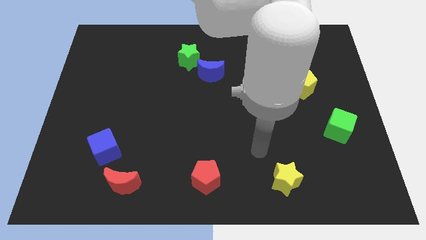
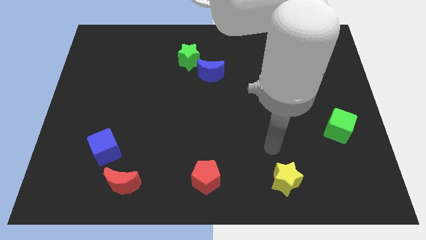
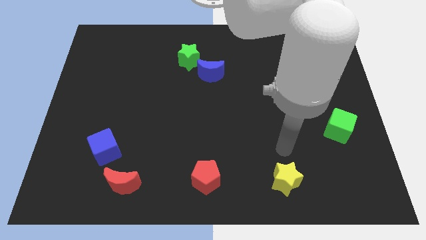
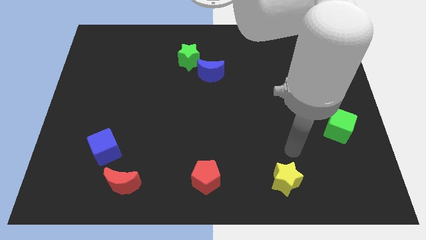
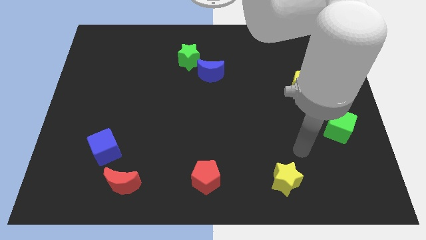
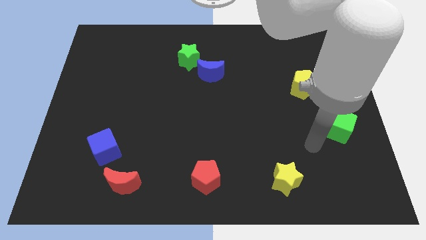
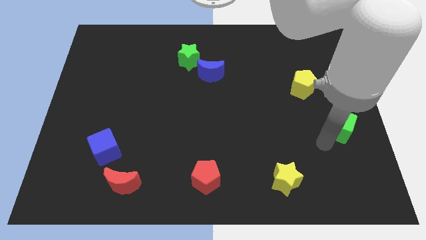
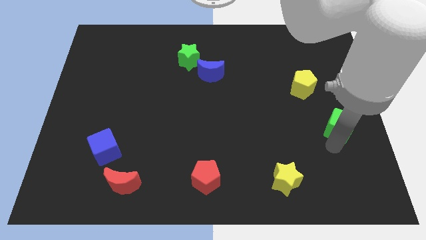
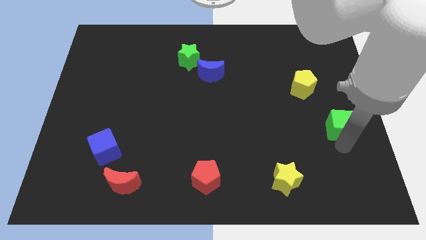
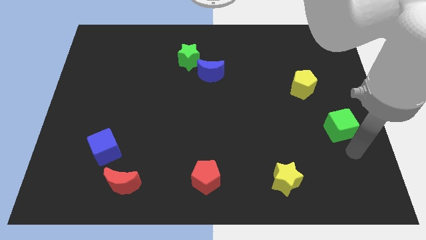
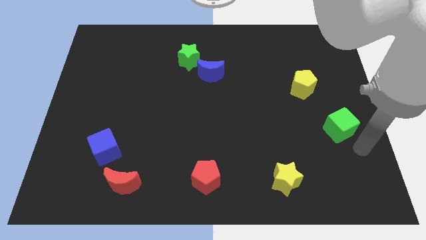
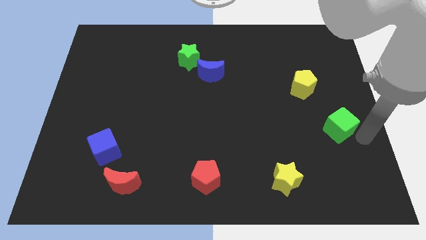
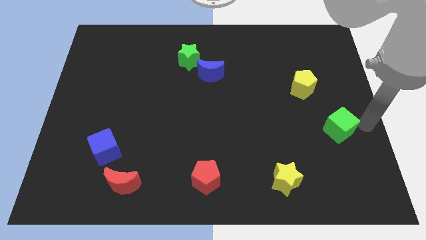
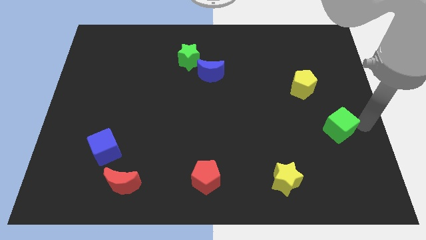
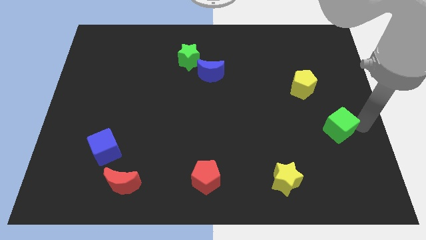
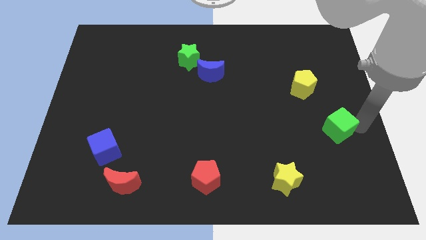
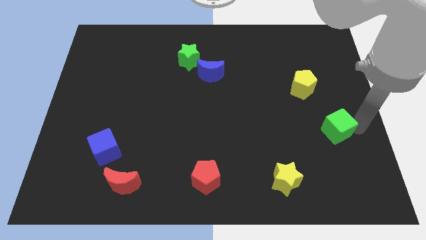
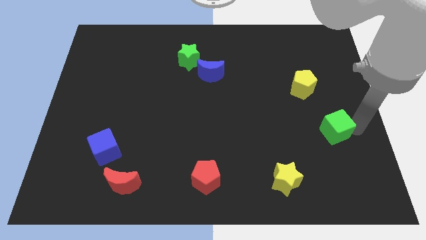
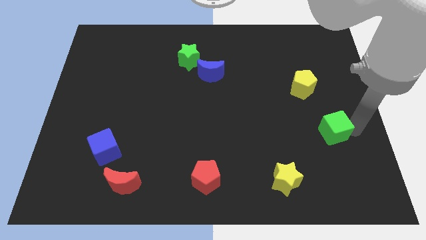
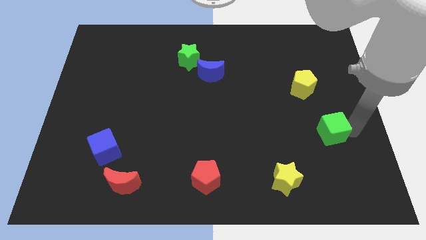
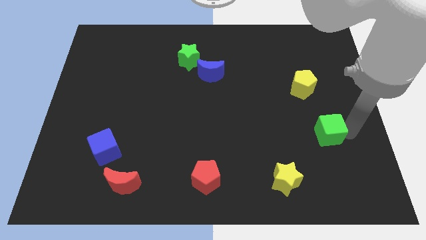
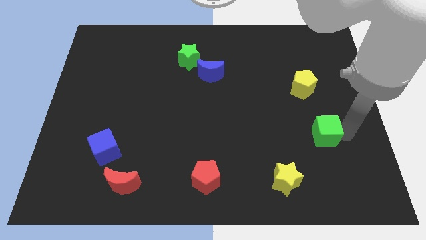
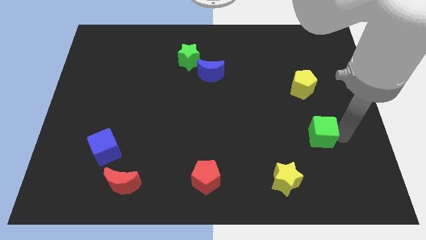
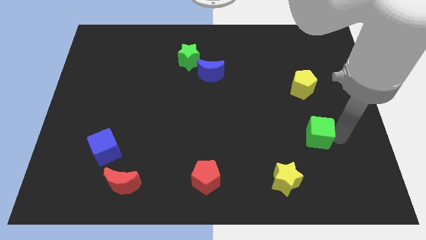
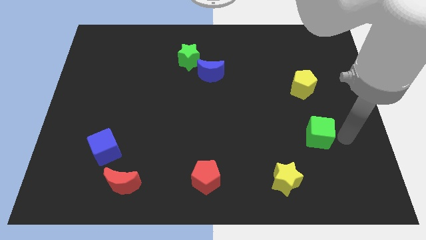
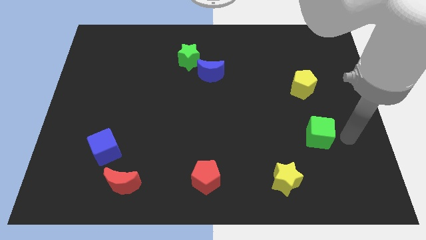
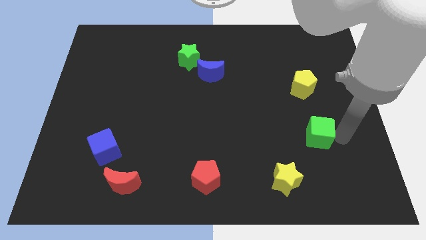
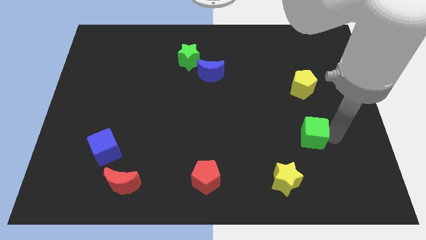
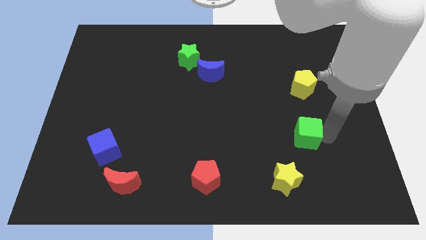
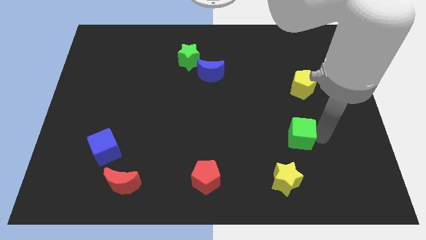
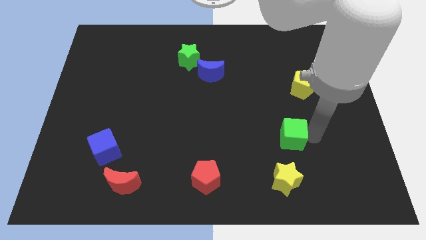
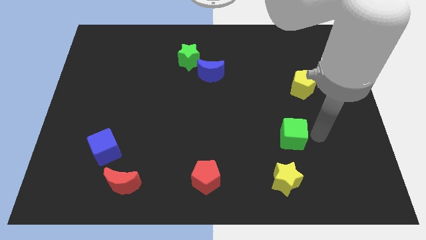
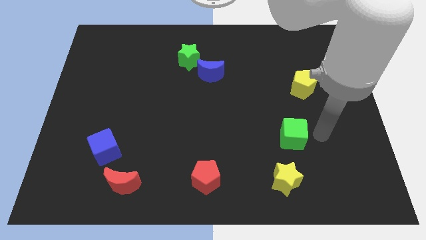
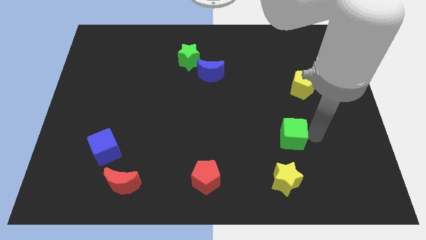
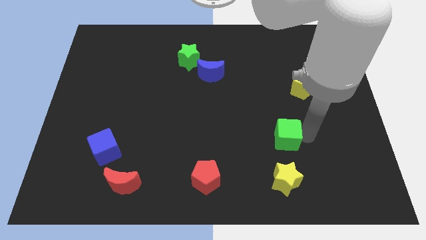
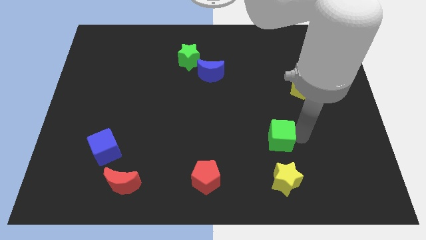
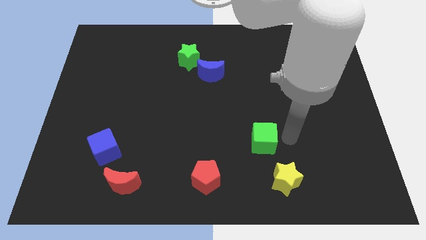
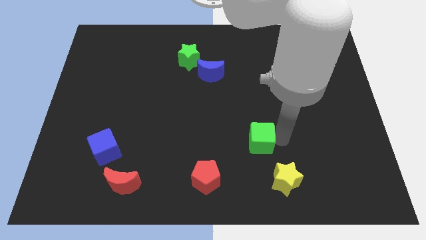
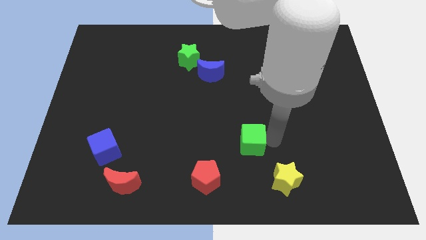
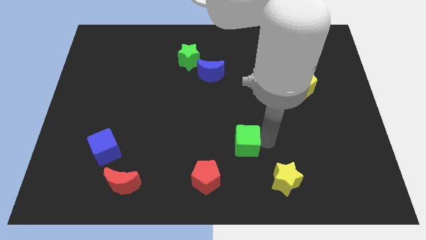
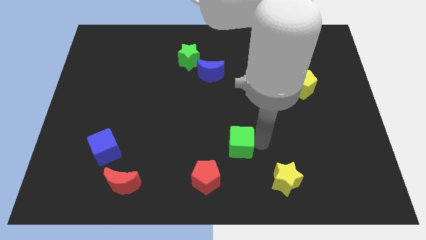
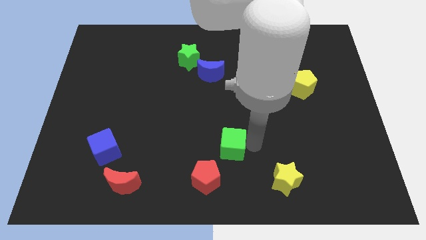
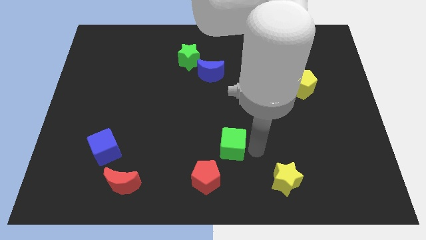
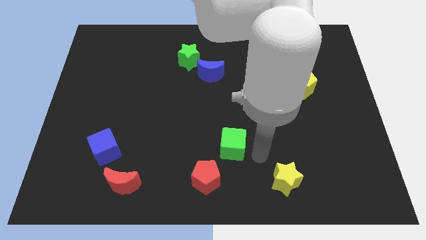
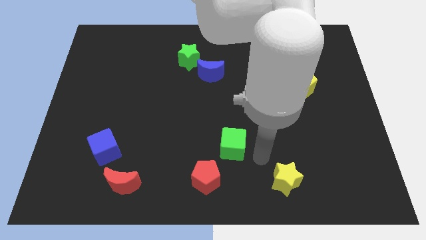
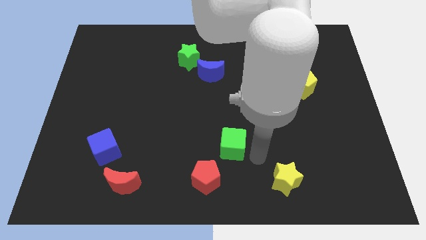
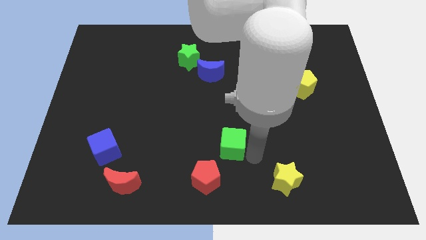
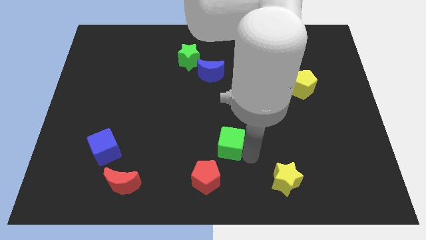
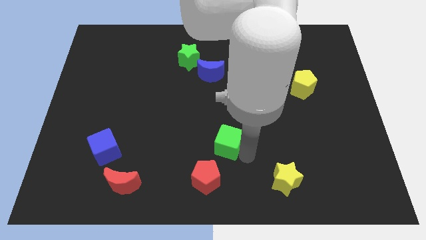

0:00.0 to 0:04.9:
put the green cube to the top side of the red pentagon

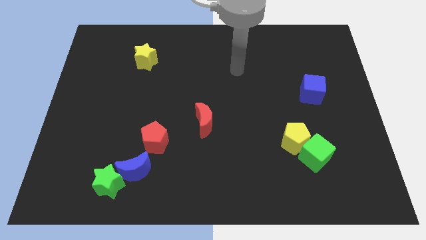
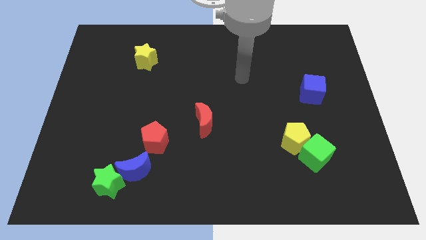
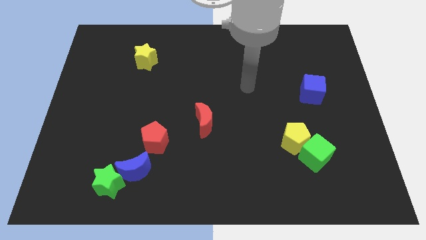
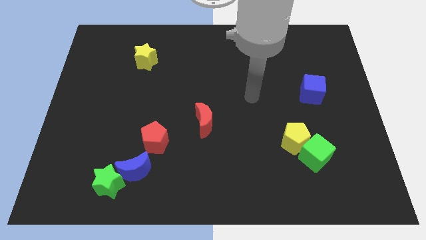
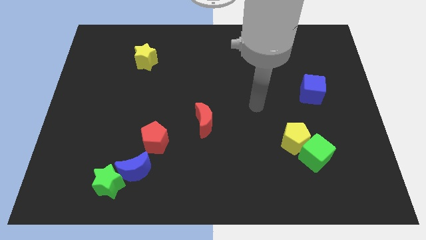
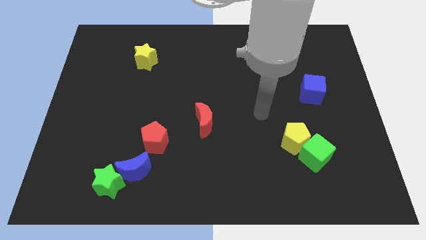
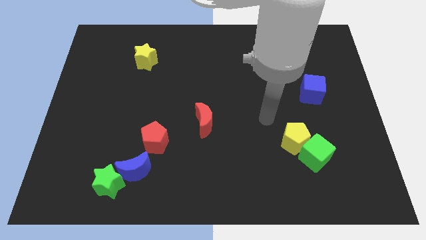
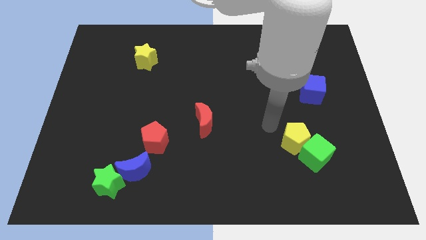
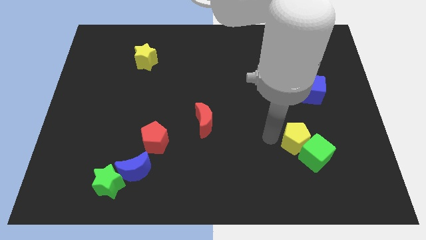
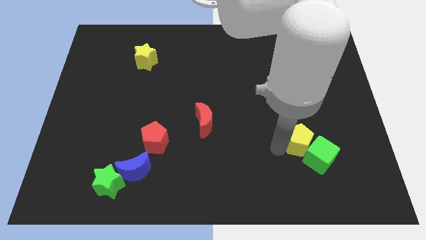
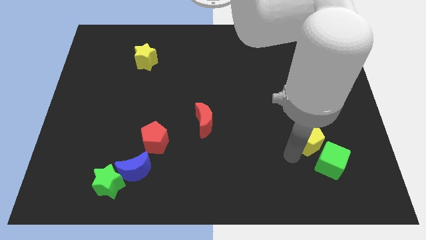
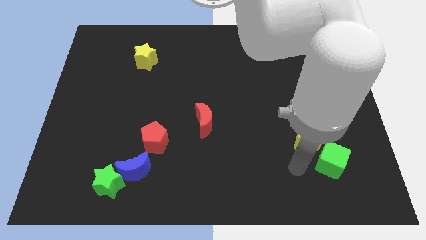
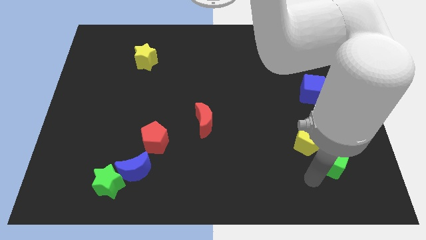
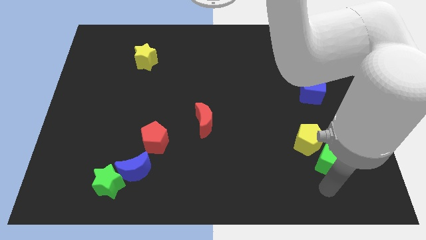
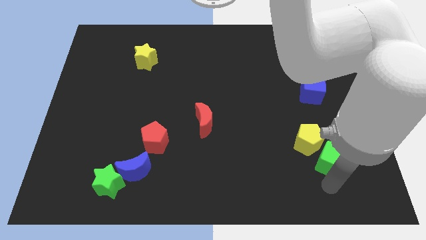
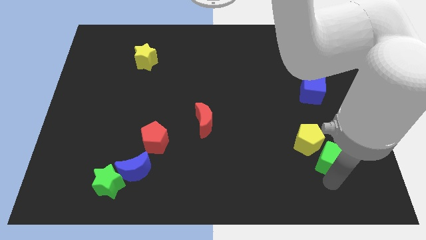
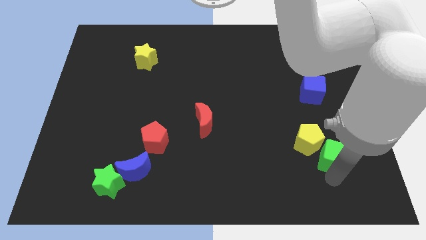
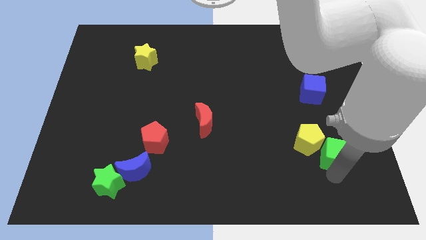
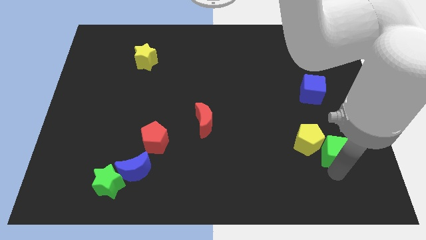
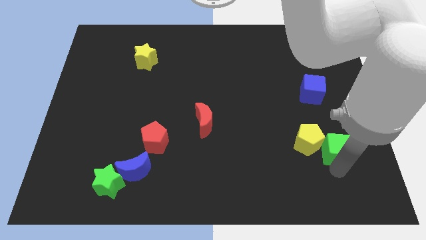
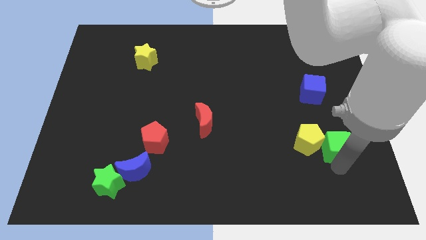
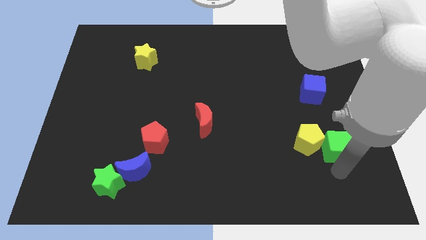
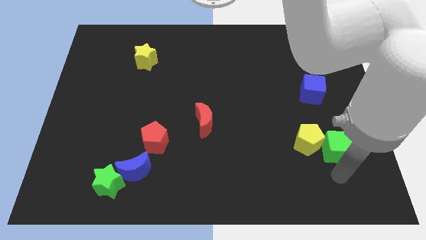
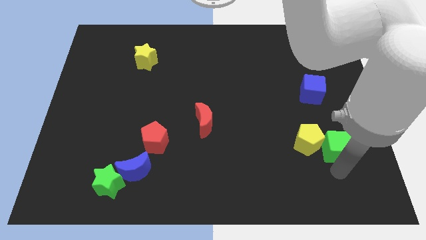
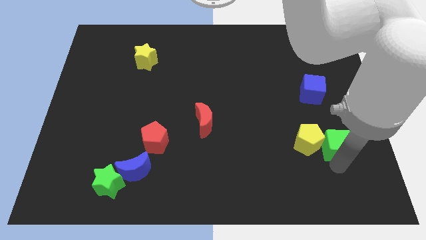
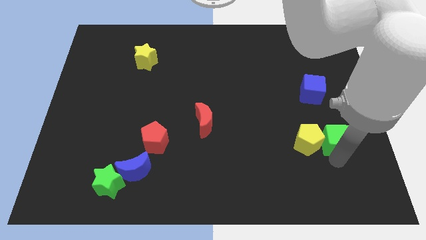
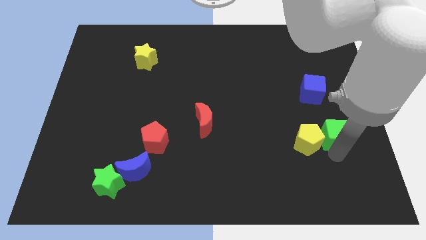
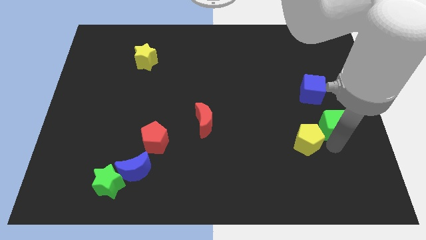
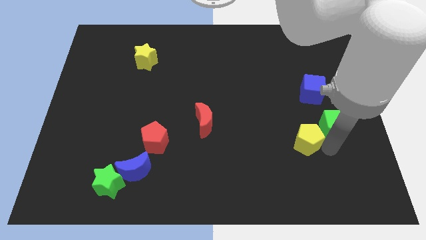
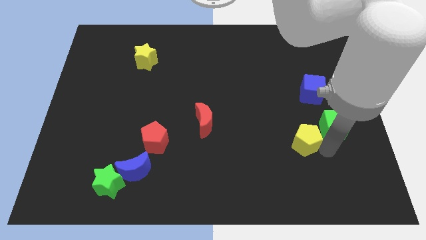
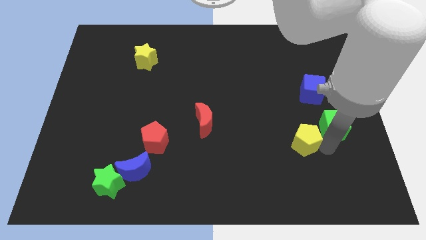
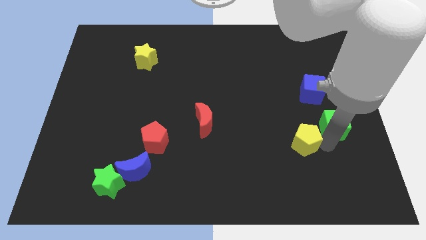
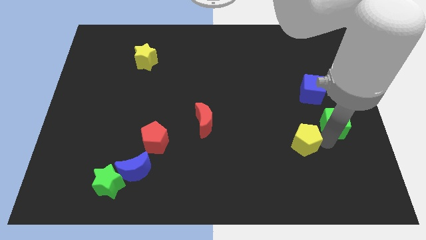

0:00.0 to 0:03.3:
push the green cube to the bottom right of the blue cube
